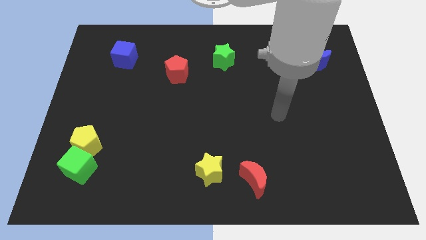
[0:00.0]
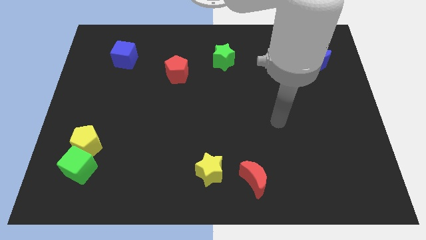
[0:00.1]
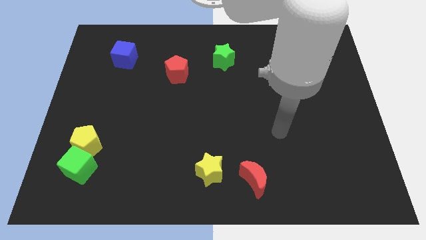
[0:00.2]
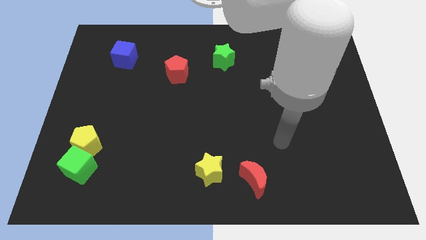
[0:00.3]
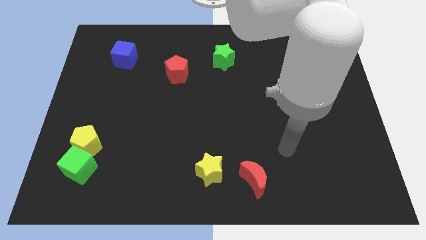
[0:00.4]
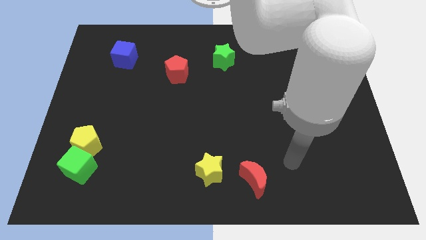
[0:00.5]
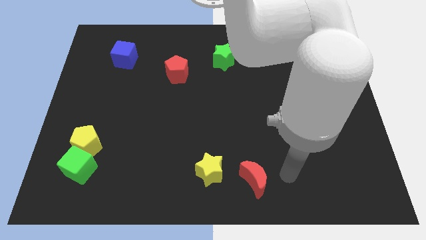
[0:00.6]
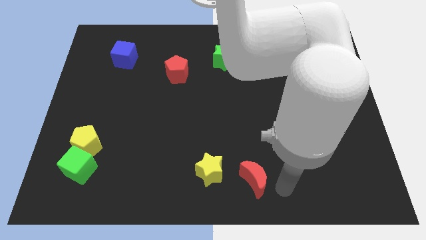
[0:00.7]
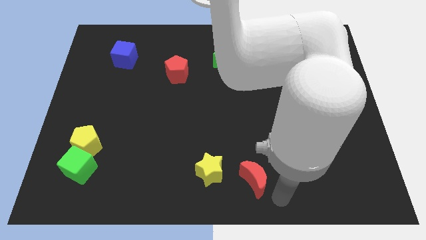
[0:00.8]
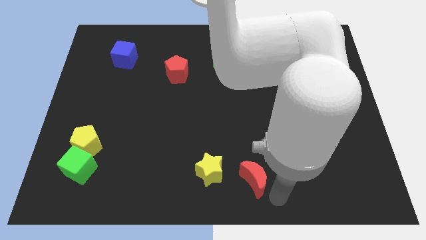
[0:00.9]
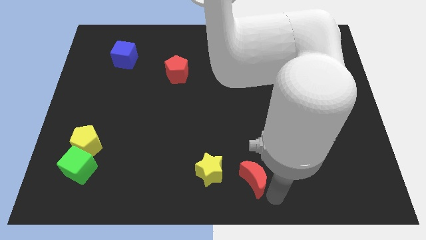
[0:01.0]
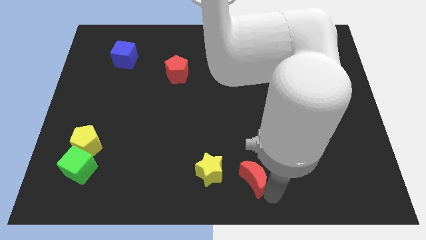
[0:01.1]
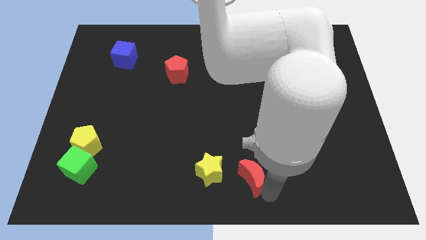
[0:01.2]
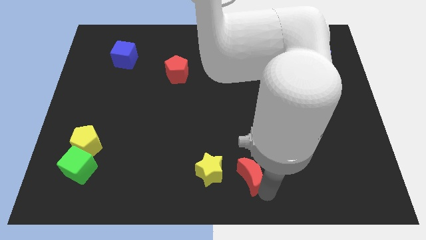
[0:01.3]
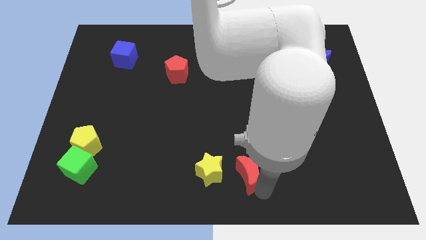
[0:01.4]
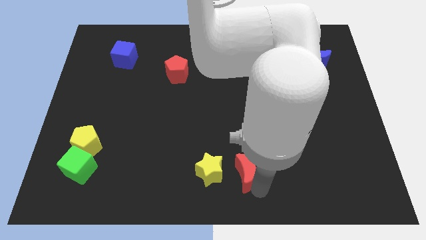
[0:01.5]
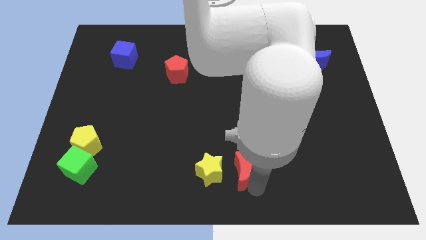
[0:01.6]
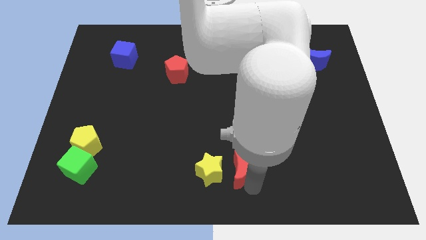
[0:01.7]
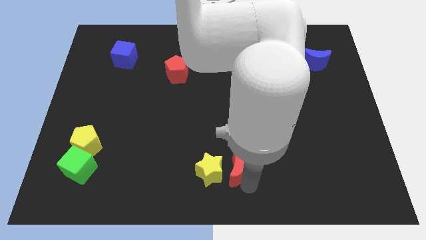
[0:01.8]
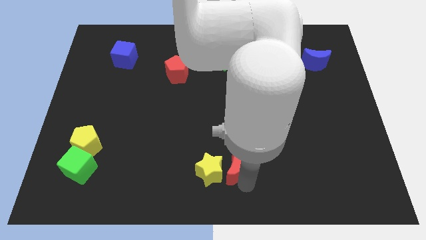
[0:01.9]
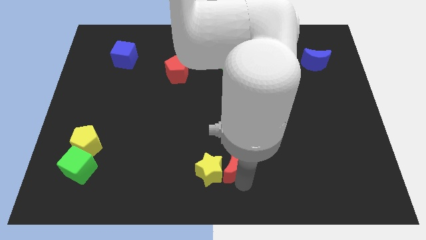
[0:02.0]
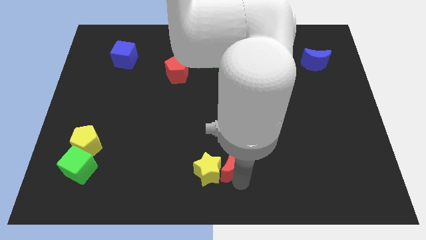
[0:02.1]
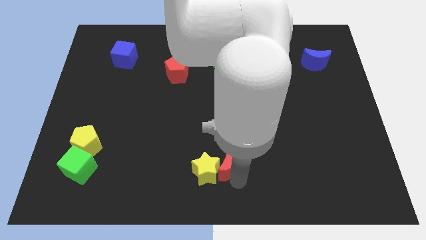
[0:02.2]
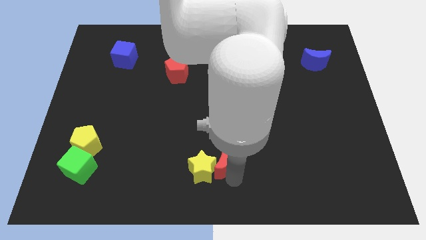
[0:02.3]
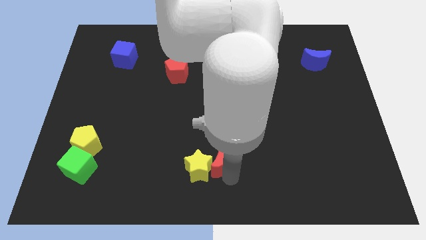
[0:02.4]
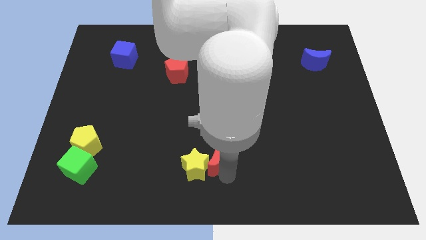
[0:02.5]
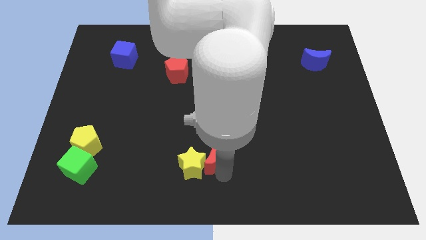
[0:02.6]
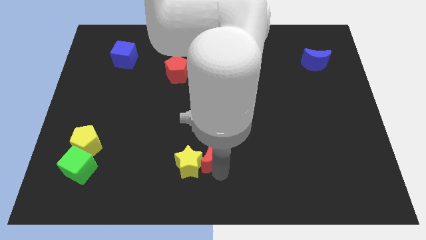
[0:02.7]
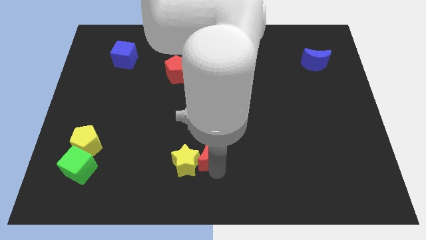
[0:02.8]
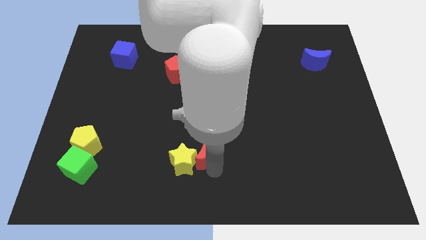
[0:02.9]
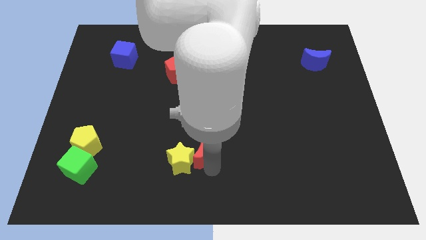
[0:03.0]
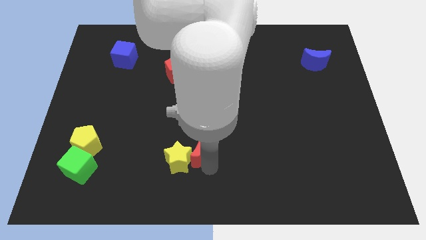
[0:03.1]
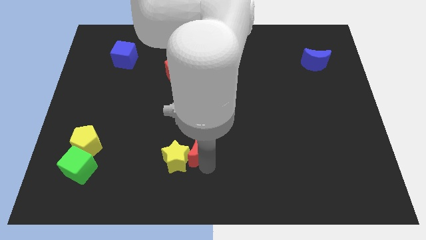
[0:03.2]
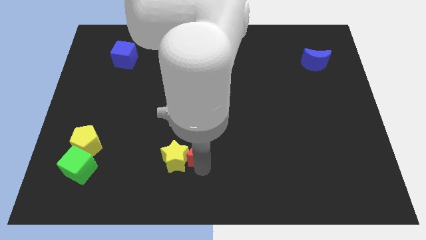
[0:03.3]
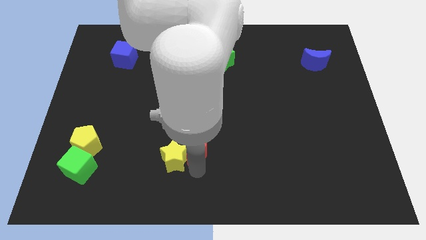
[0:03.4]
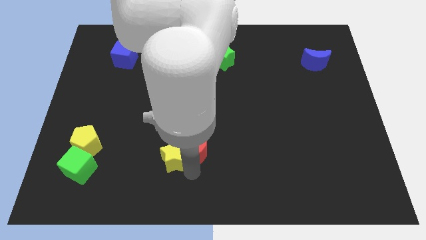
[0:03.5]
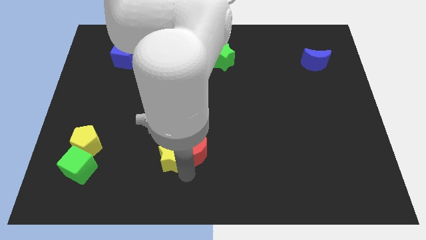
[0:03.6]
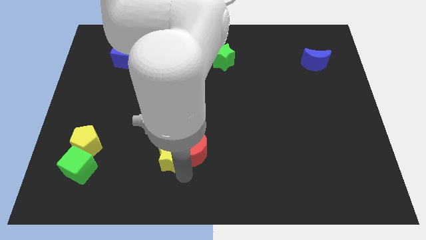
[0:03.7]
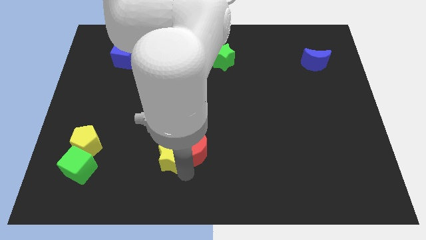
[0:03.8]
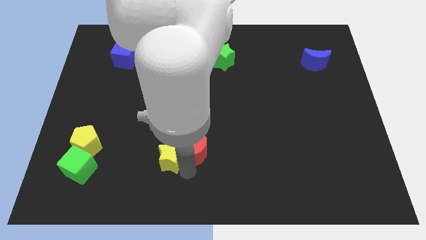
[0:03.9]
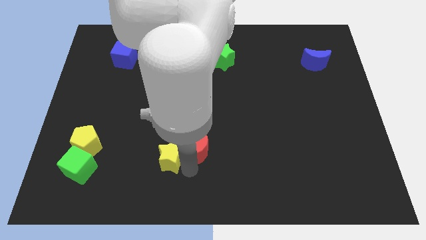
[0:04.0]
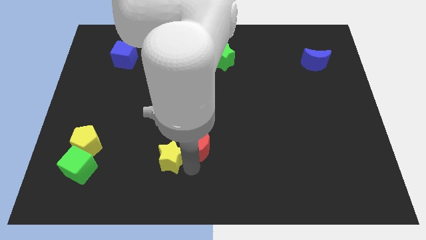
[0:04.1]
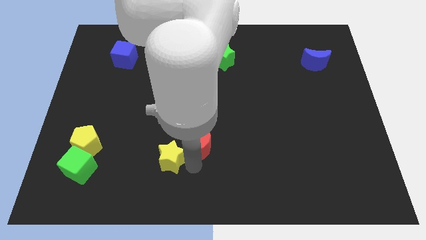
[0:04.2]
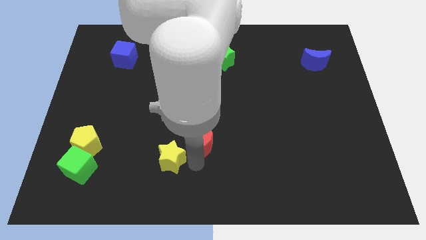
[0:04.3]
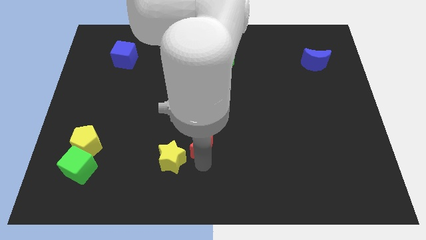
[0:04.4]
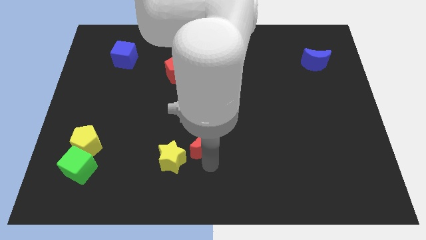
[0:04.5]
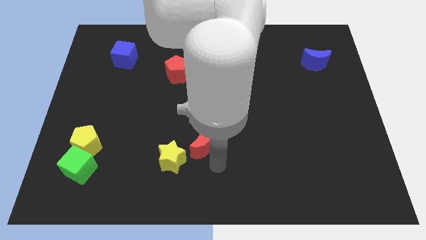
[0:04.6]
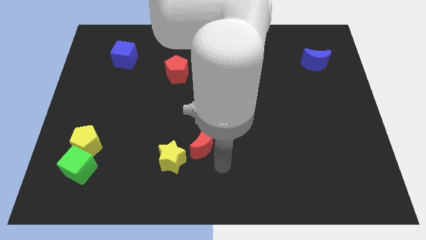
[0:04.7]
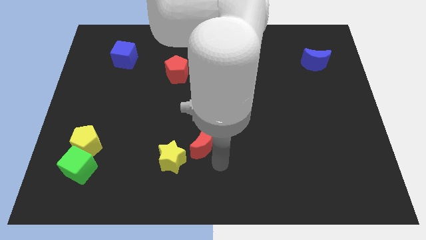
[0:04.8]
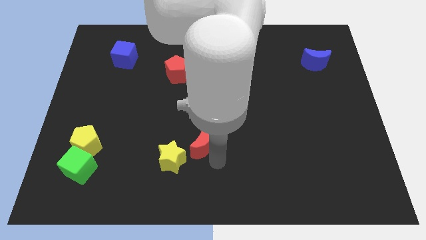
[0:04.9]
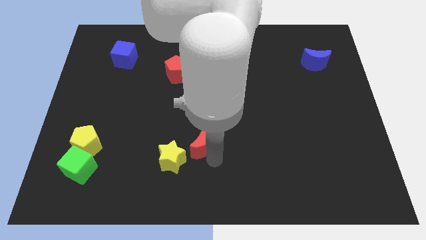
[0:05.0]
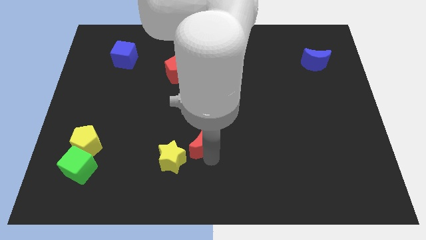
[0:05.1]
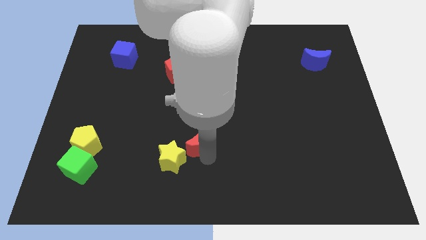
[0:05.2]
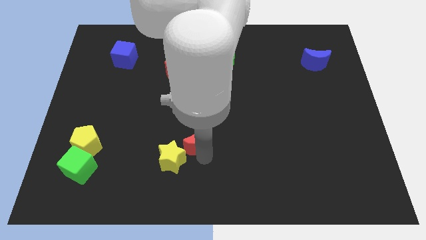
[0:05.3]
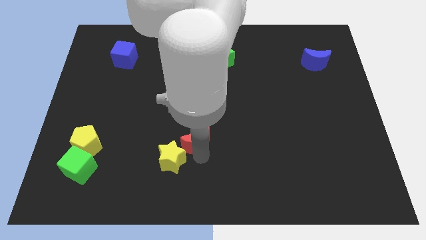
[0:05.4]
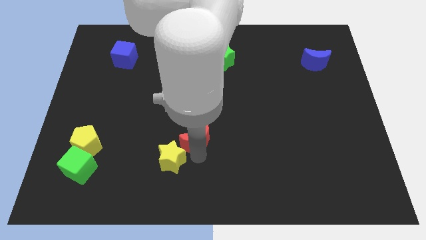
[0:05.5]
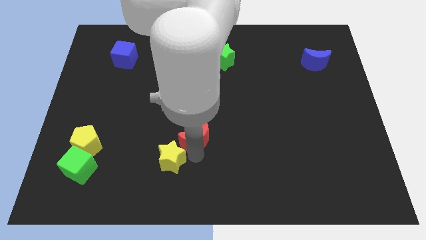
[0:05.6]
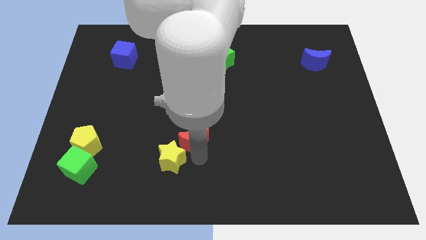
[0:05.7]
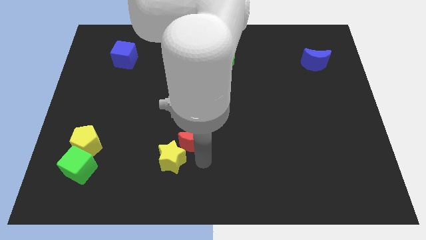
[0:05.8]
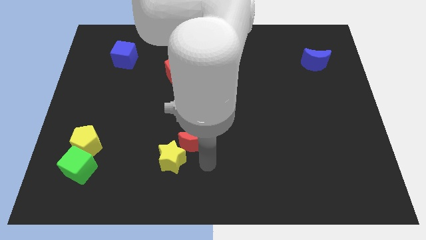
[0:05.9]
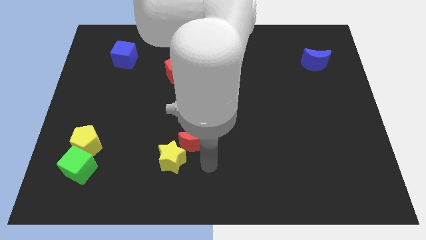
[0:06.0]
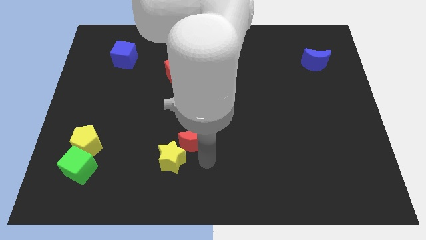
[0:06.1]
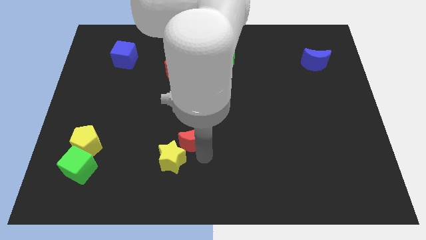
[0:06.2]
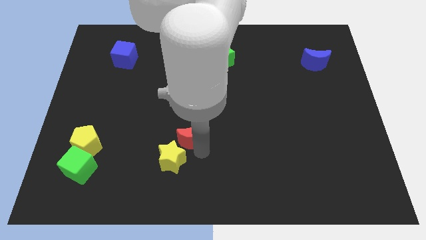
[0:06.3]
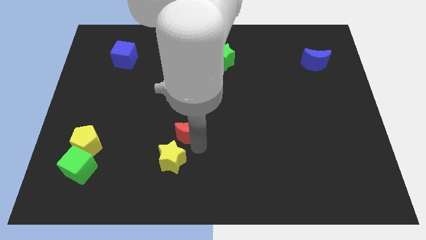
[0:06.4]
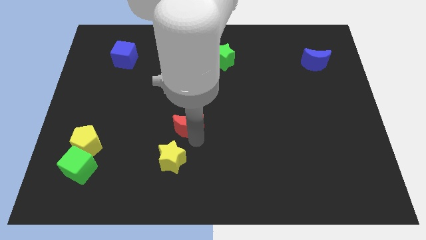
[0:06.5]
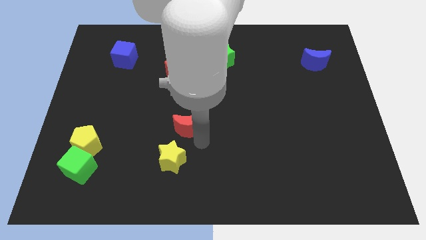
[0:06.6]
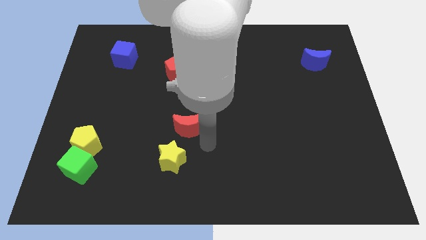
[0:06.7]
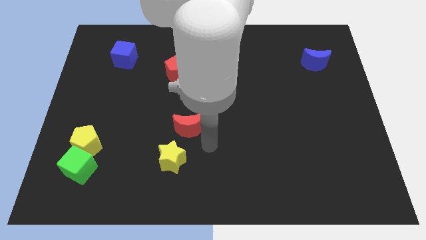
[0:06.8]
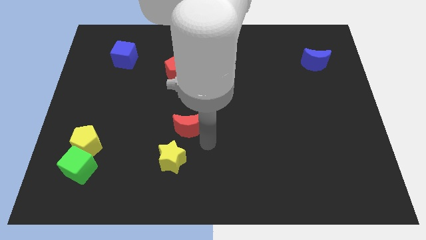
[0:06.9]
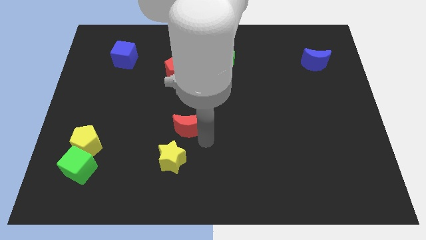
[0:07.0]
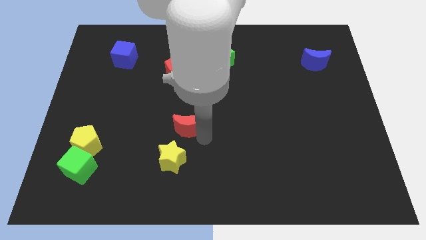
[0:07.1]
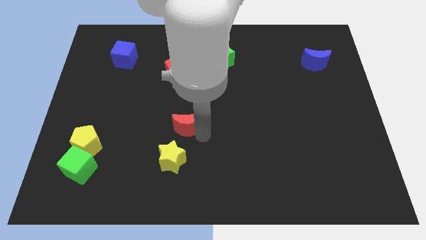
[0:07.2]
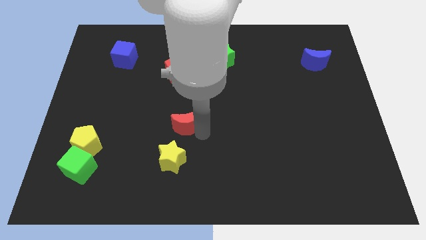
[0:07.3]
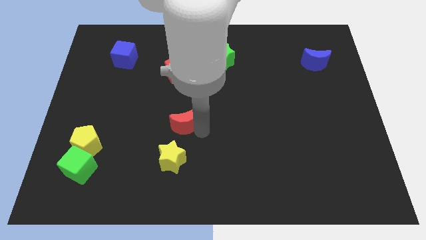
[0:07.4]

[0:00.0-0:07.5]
slide the red moon diagonally up and left

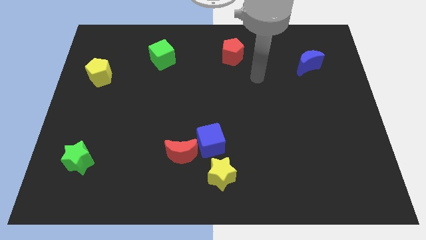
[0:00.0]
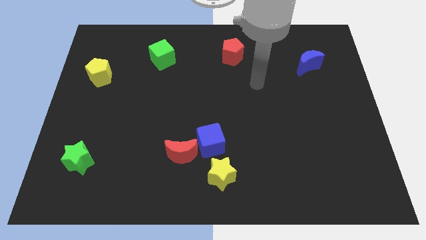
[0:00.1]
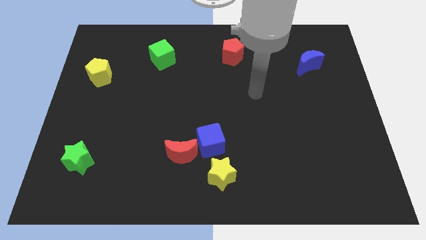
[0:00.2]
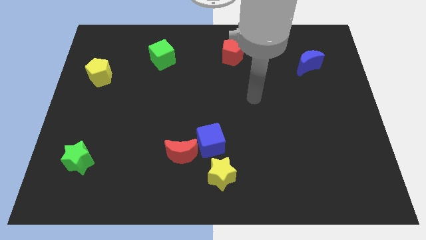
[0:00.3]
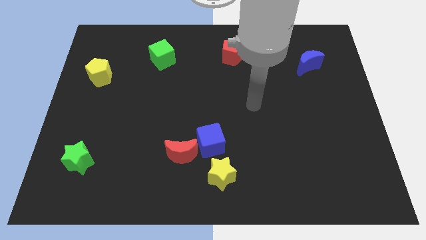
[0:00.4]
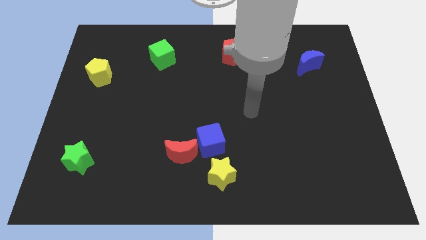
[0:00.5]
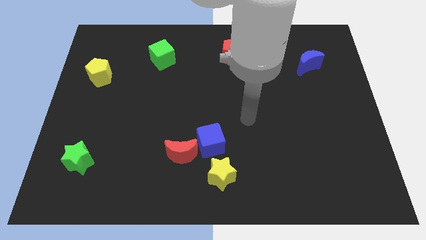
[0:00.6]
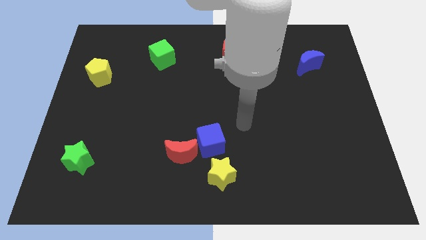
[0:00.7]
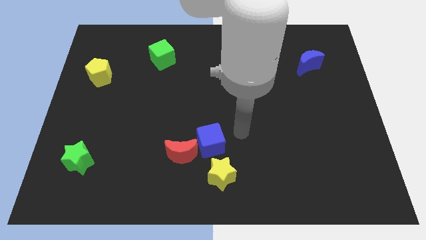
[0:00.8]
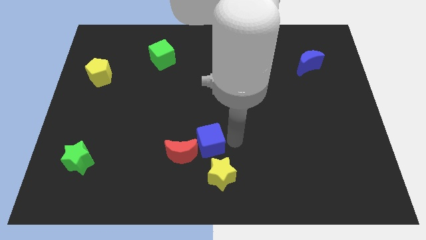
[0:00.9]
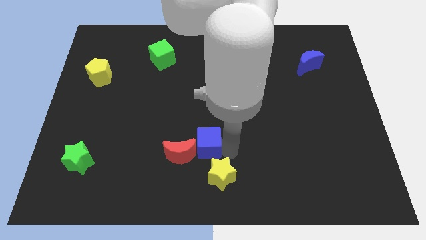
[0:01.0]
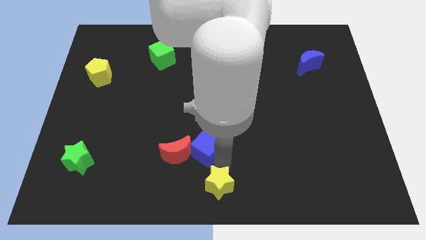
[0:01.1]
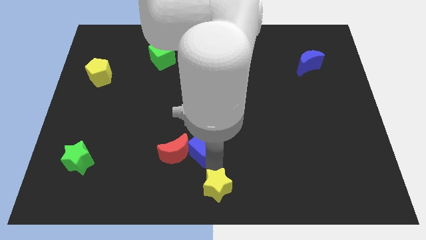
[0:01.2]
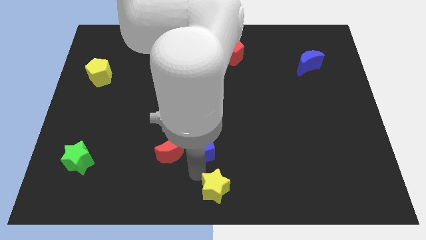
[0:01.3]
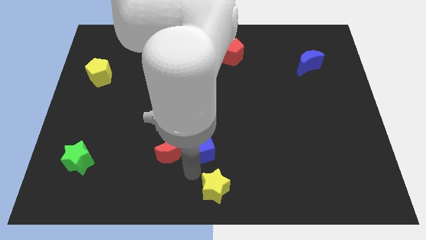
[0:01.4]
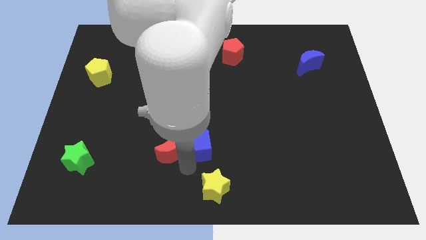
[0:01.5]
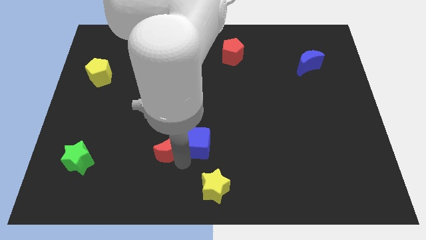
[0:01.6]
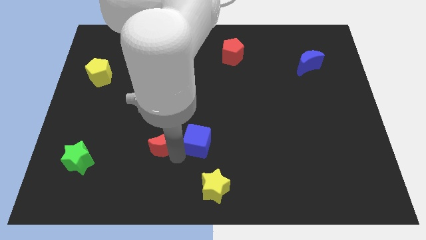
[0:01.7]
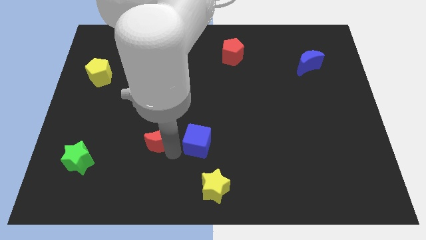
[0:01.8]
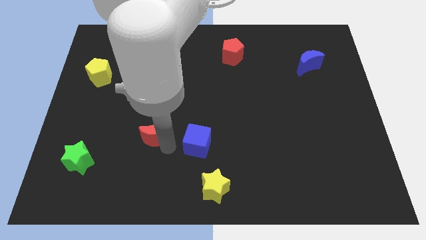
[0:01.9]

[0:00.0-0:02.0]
push the red moon diagonally upwards and left a little
